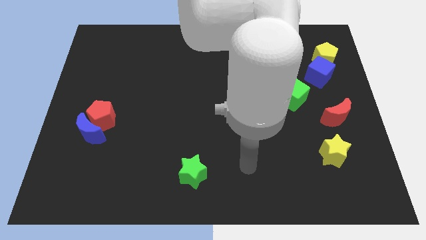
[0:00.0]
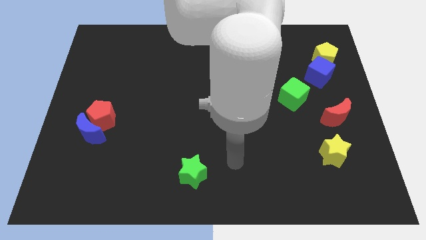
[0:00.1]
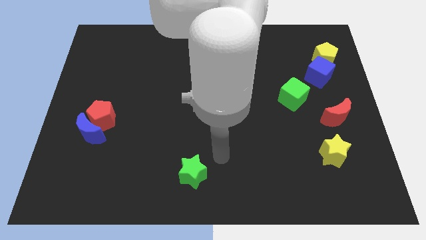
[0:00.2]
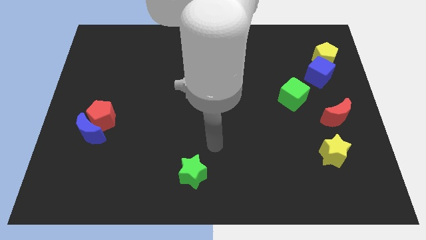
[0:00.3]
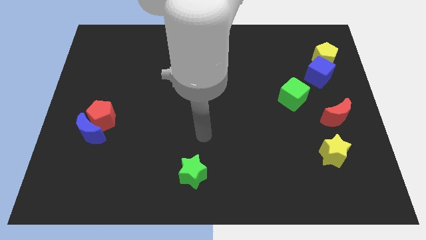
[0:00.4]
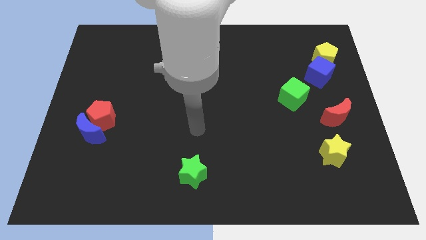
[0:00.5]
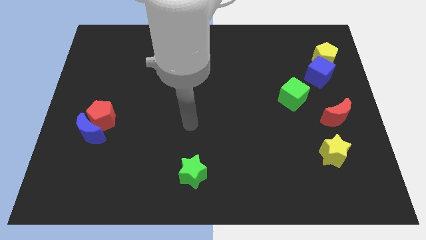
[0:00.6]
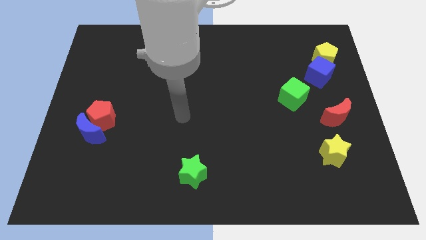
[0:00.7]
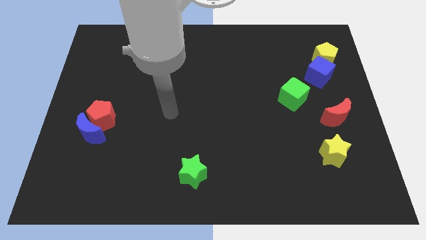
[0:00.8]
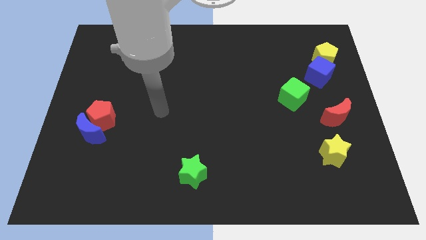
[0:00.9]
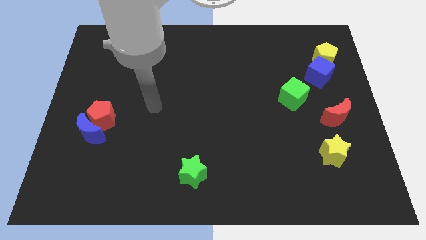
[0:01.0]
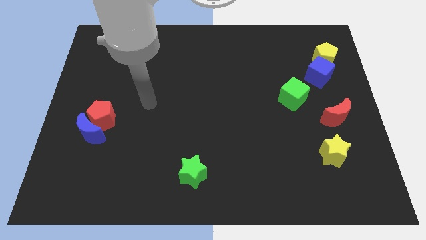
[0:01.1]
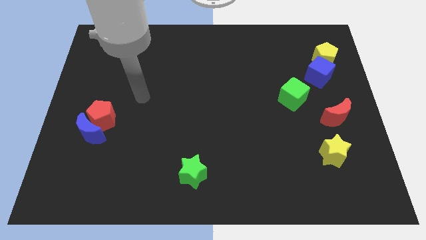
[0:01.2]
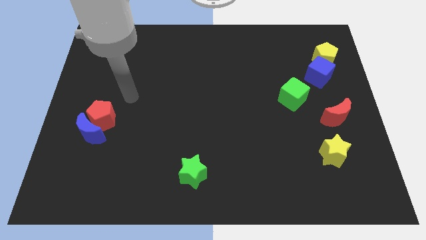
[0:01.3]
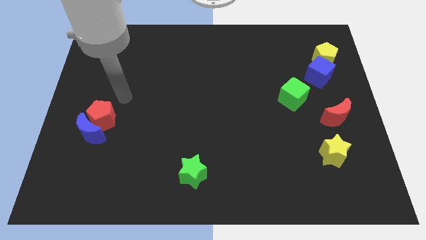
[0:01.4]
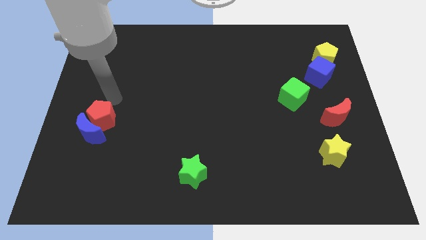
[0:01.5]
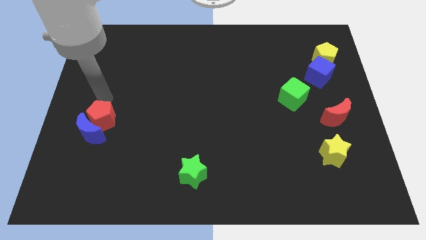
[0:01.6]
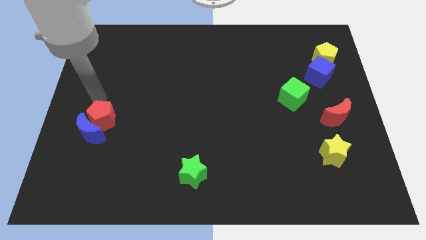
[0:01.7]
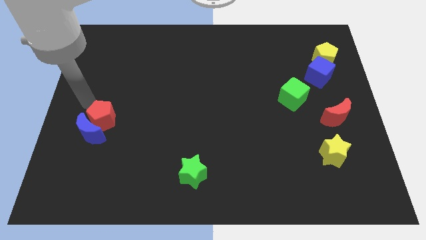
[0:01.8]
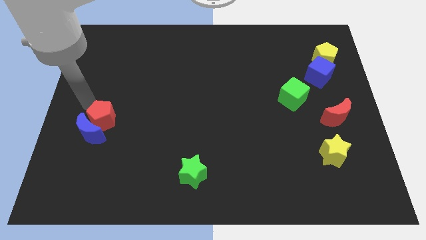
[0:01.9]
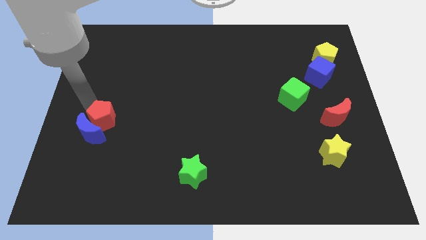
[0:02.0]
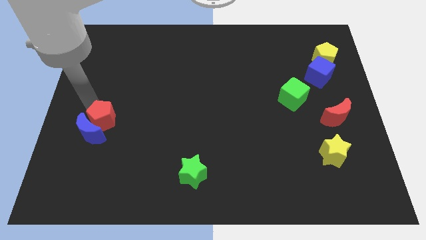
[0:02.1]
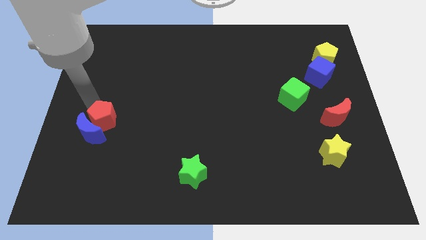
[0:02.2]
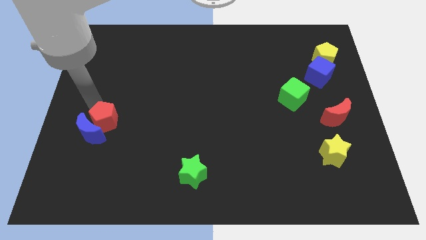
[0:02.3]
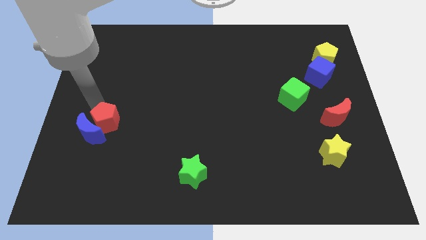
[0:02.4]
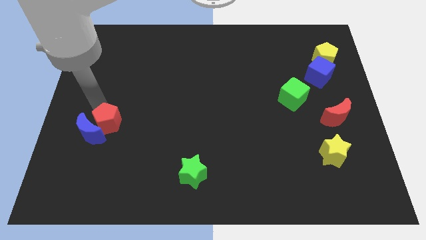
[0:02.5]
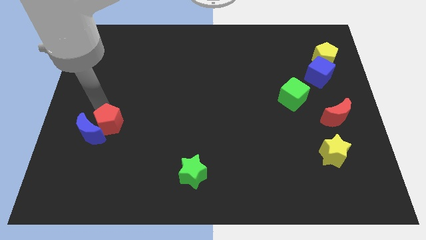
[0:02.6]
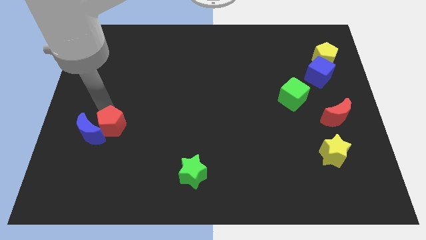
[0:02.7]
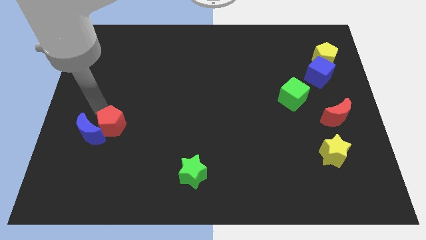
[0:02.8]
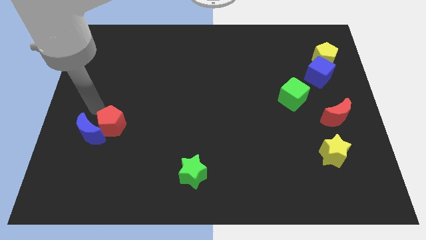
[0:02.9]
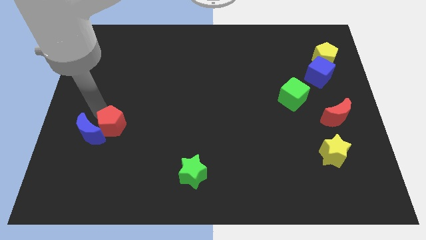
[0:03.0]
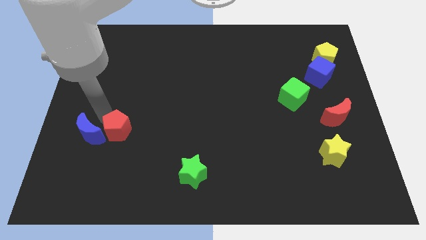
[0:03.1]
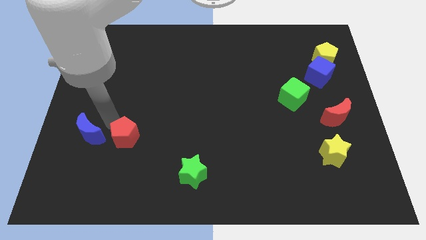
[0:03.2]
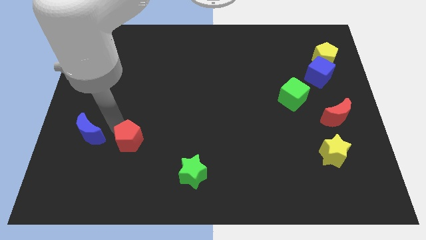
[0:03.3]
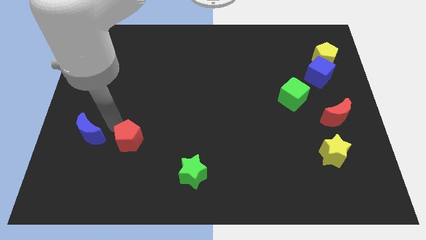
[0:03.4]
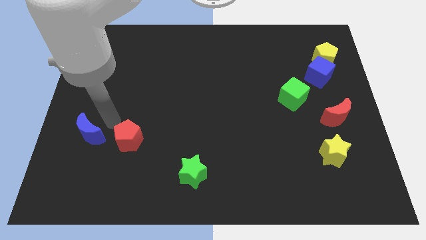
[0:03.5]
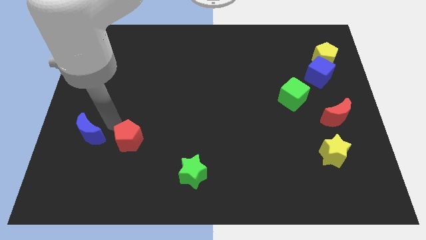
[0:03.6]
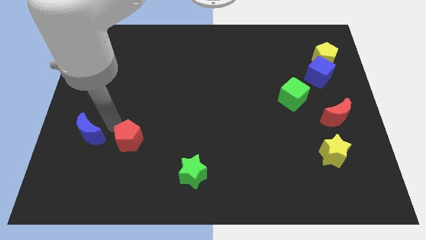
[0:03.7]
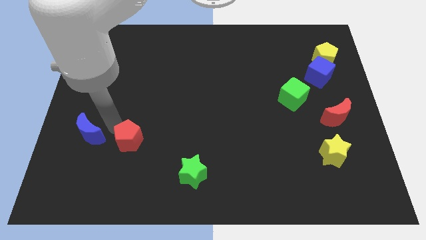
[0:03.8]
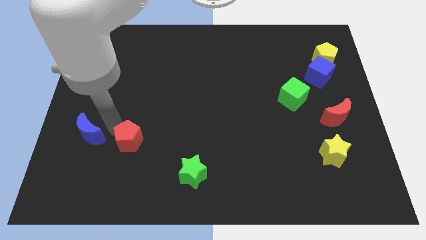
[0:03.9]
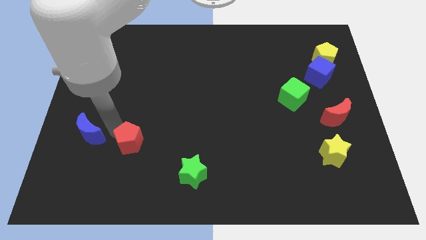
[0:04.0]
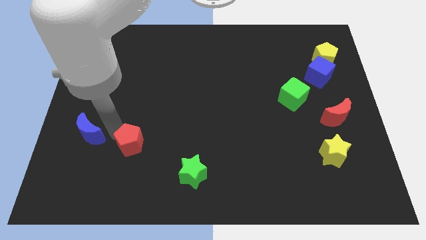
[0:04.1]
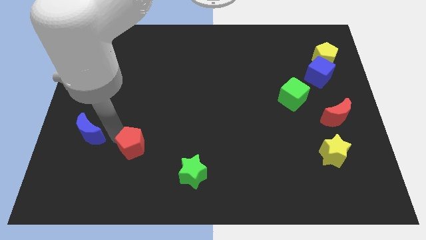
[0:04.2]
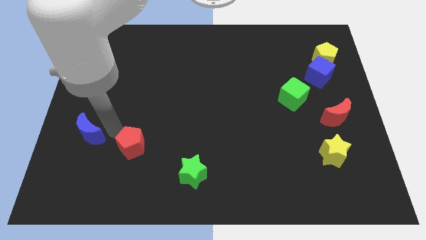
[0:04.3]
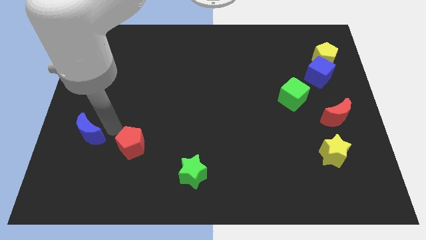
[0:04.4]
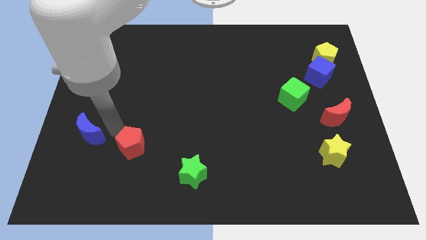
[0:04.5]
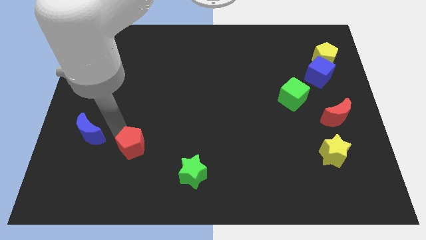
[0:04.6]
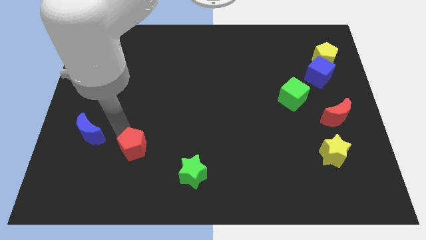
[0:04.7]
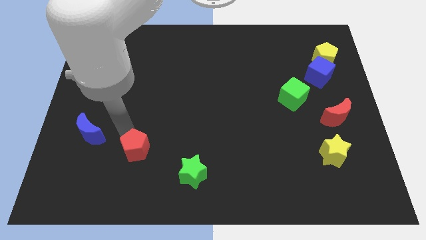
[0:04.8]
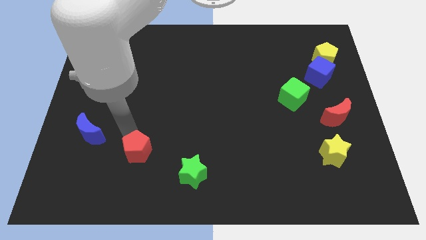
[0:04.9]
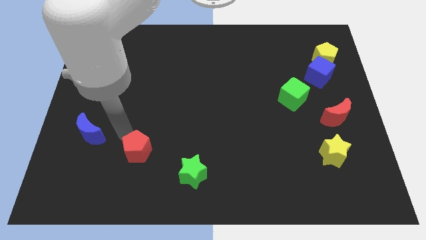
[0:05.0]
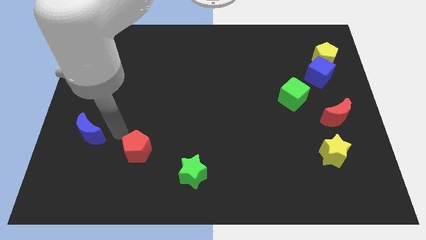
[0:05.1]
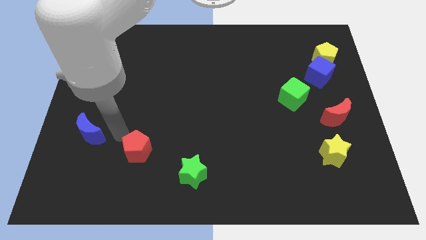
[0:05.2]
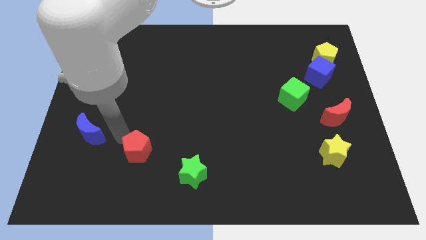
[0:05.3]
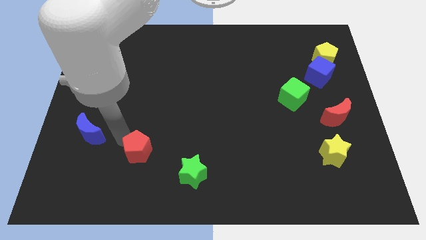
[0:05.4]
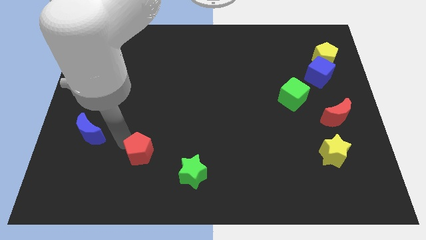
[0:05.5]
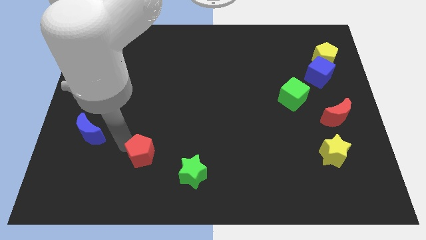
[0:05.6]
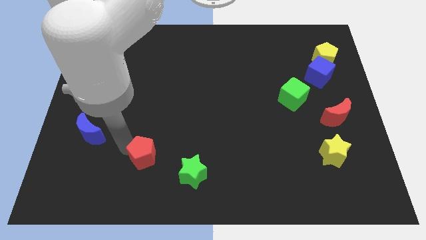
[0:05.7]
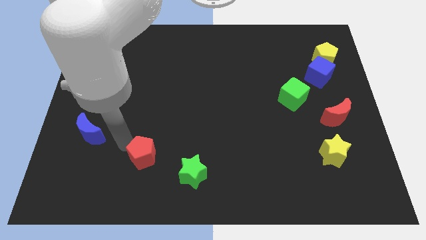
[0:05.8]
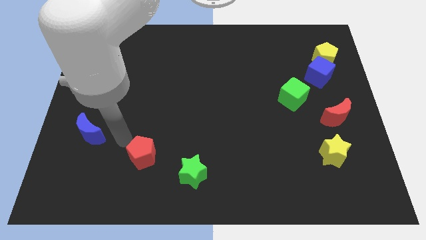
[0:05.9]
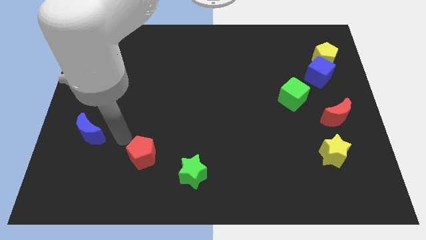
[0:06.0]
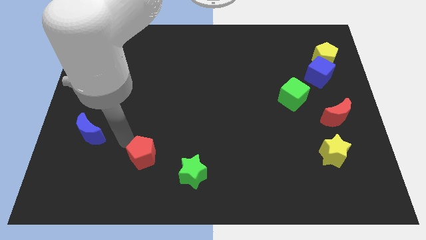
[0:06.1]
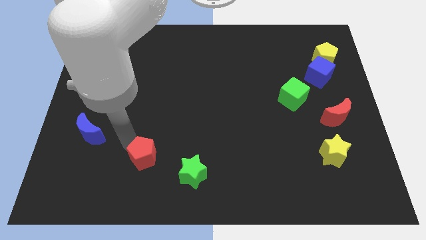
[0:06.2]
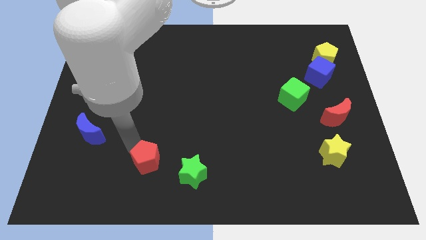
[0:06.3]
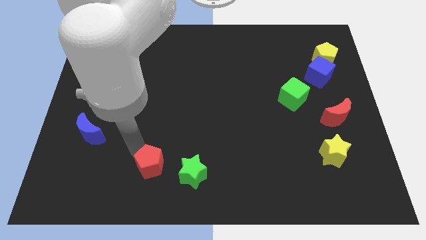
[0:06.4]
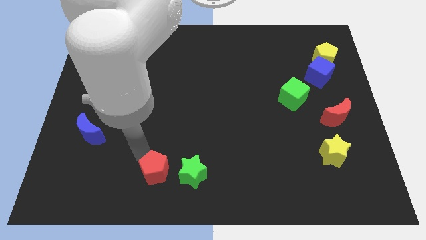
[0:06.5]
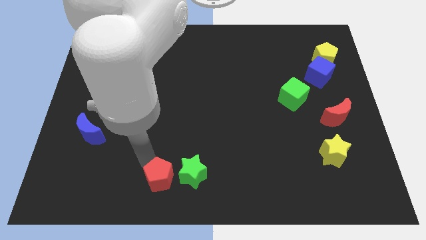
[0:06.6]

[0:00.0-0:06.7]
slide the red pentagon to the bottom side
